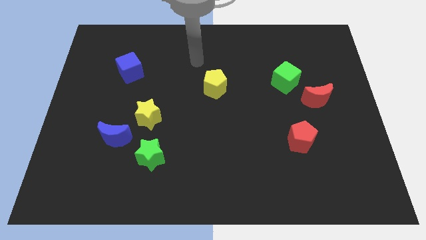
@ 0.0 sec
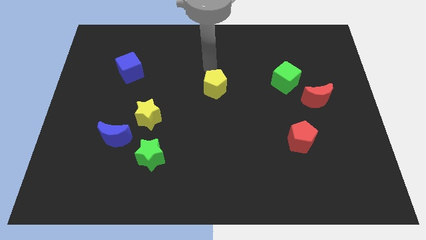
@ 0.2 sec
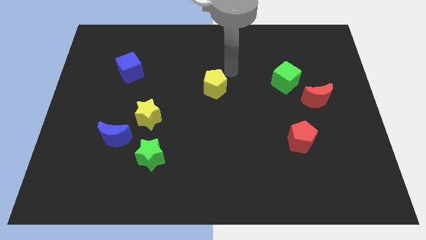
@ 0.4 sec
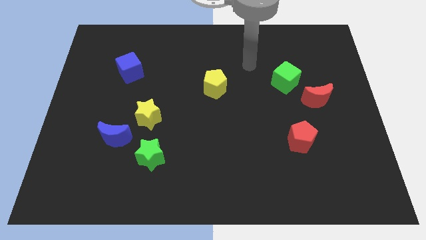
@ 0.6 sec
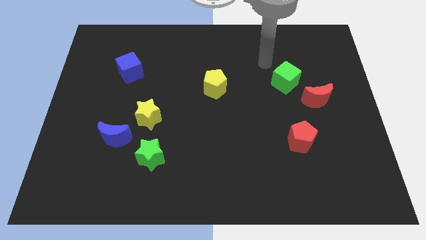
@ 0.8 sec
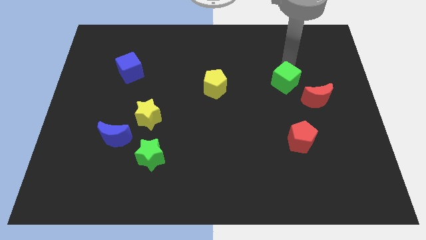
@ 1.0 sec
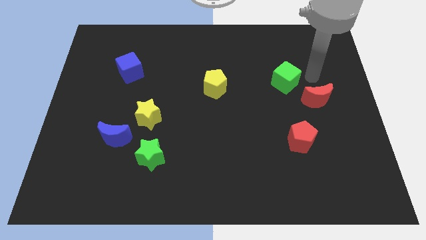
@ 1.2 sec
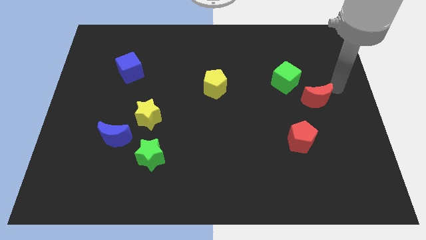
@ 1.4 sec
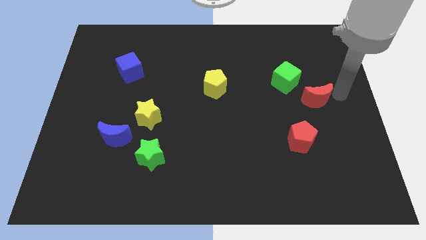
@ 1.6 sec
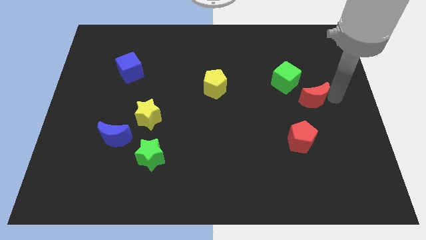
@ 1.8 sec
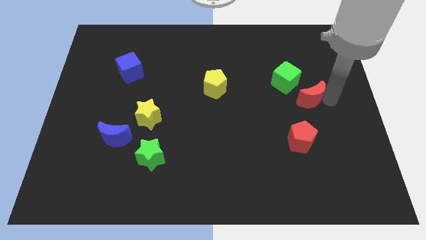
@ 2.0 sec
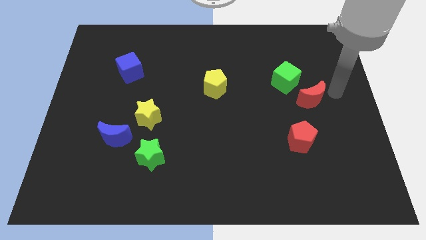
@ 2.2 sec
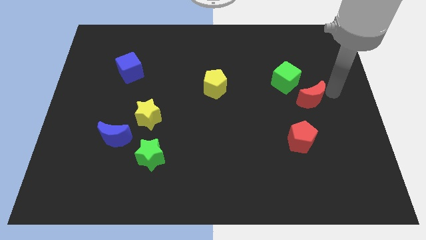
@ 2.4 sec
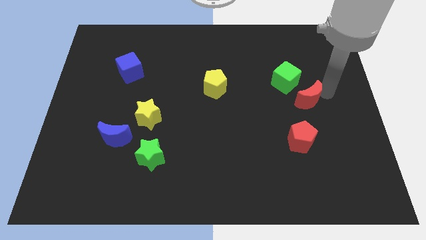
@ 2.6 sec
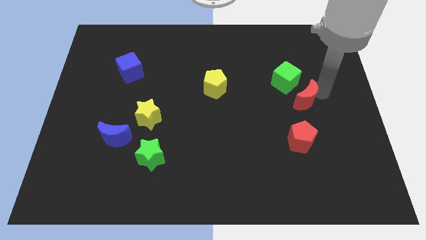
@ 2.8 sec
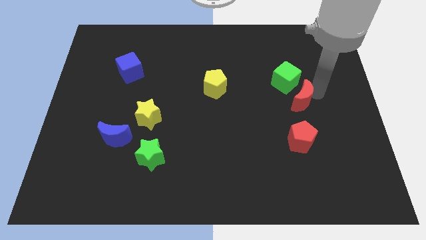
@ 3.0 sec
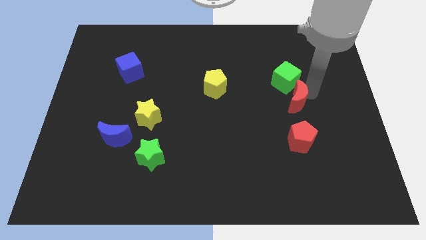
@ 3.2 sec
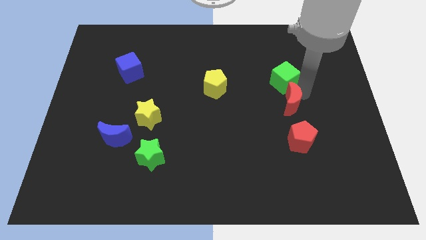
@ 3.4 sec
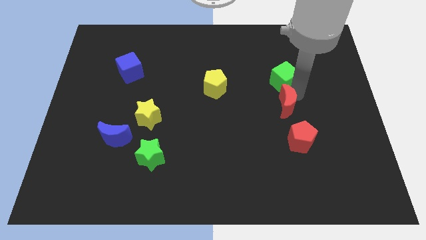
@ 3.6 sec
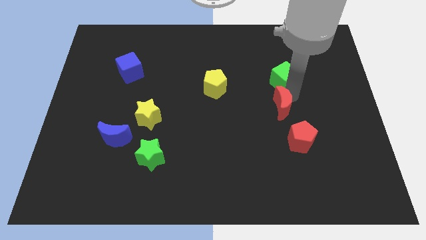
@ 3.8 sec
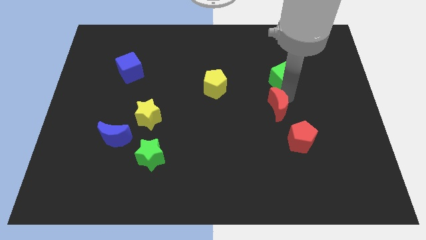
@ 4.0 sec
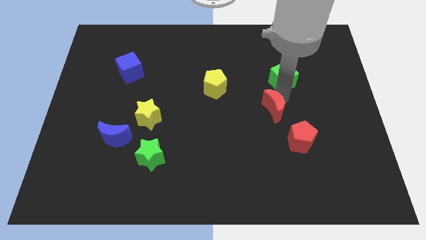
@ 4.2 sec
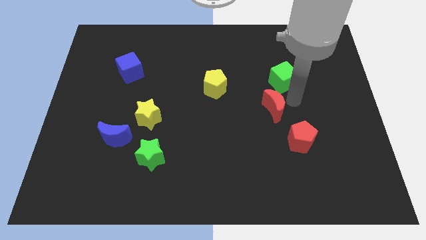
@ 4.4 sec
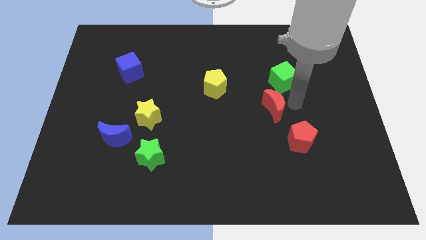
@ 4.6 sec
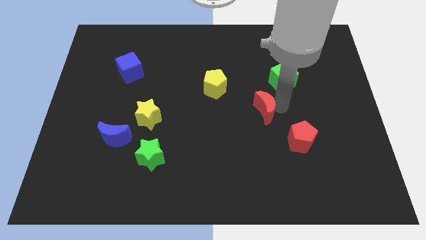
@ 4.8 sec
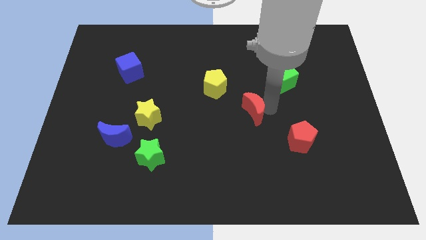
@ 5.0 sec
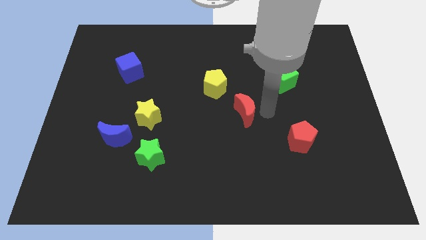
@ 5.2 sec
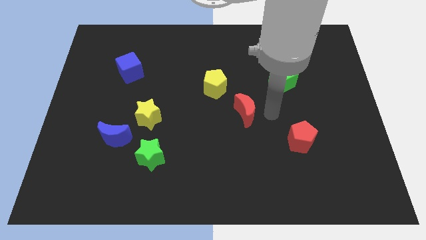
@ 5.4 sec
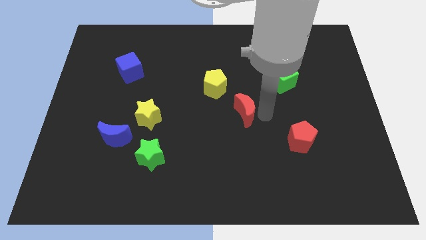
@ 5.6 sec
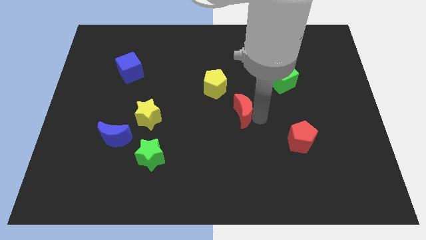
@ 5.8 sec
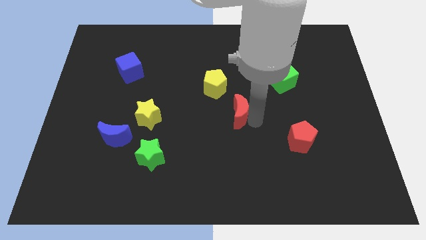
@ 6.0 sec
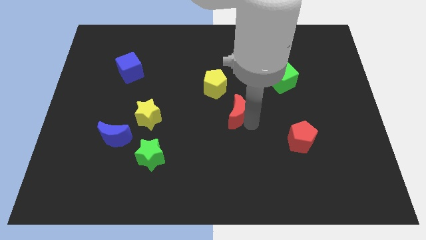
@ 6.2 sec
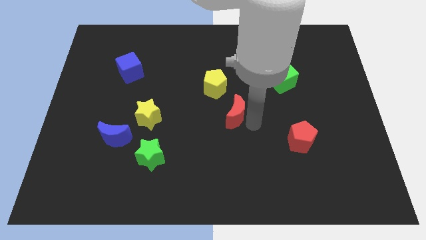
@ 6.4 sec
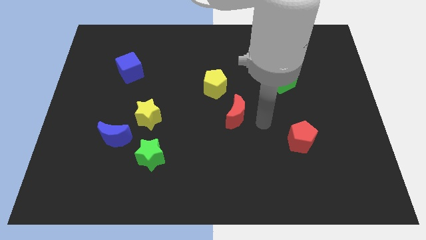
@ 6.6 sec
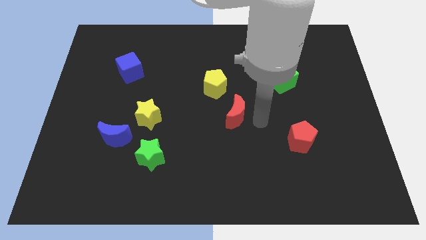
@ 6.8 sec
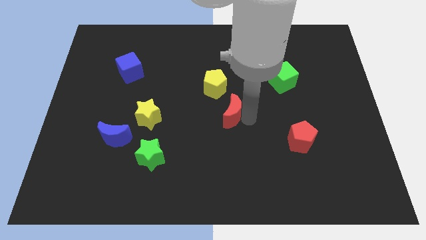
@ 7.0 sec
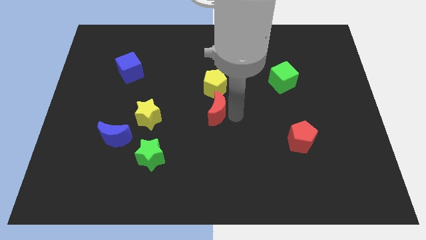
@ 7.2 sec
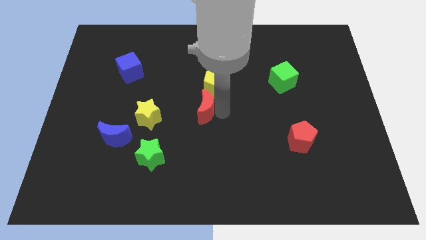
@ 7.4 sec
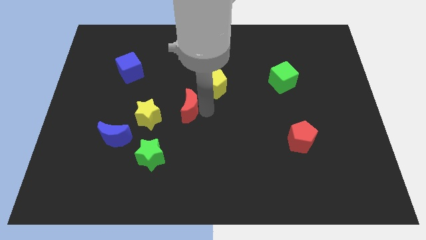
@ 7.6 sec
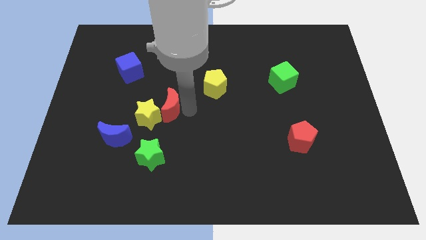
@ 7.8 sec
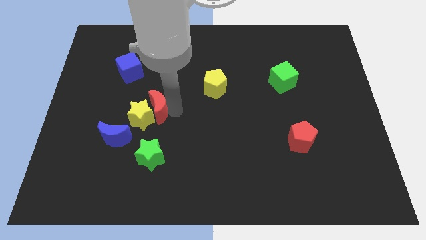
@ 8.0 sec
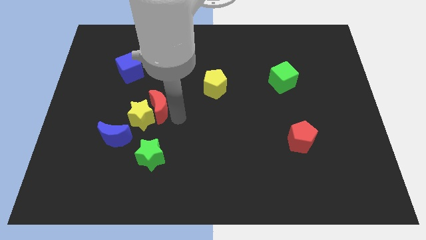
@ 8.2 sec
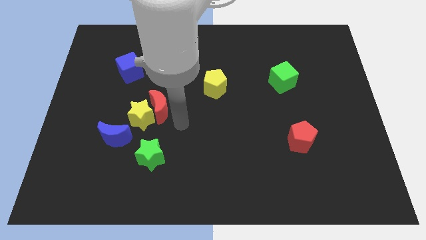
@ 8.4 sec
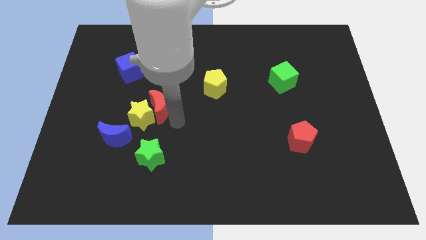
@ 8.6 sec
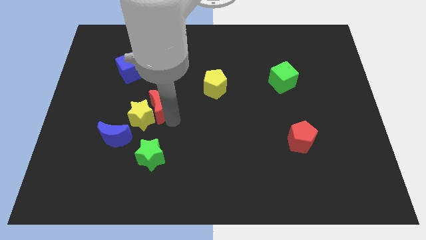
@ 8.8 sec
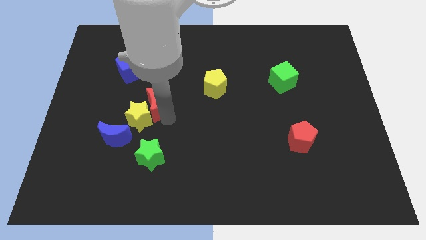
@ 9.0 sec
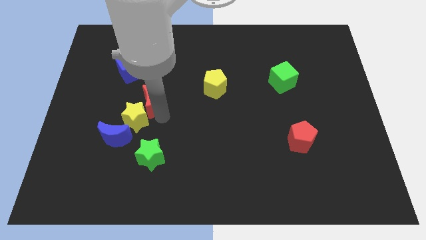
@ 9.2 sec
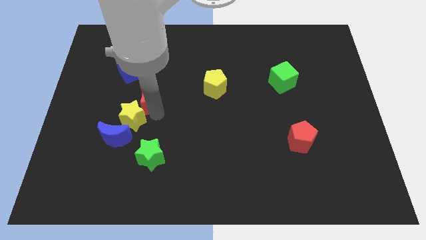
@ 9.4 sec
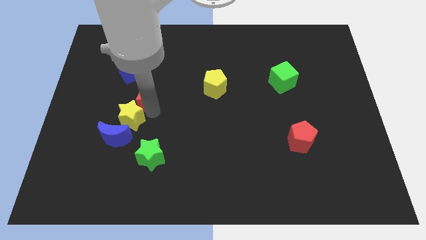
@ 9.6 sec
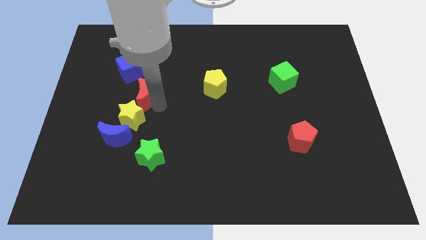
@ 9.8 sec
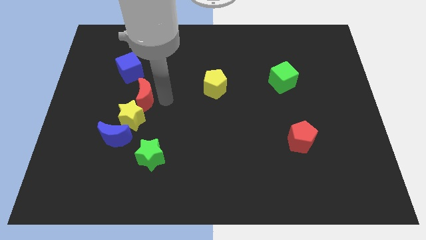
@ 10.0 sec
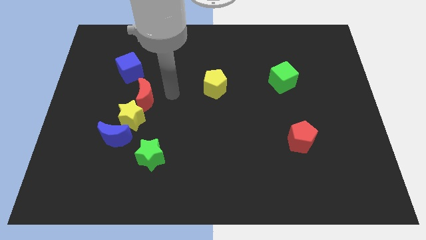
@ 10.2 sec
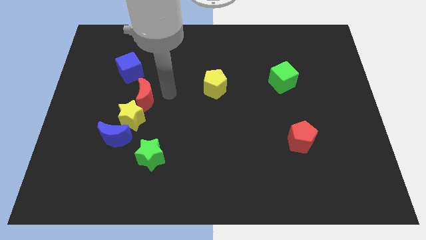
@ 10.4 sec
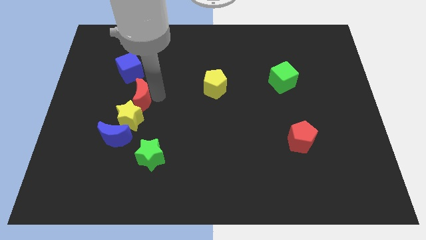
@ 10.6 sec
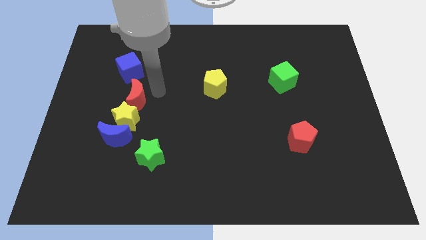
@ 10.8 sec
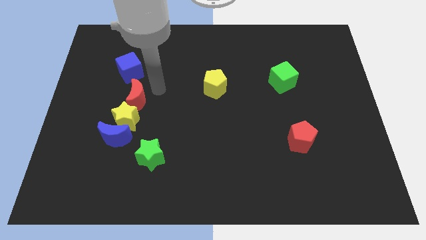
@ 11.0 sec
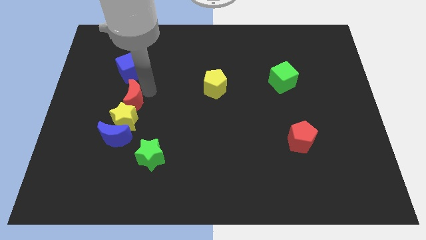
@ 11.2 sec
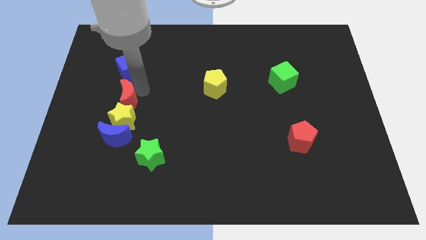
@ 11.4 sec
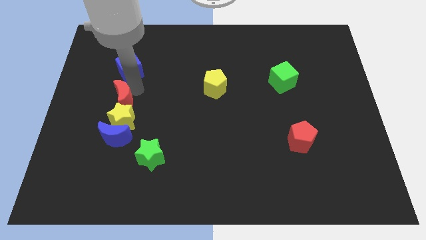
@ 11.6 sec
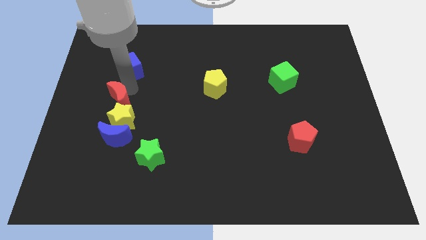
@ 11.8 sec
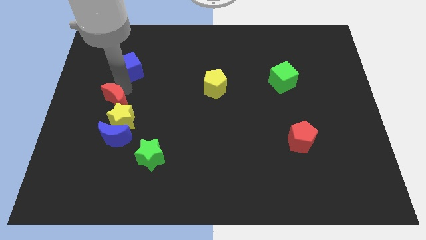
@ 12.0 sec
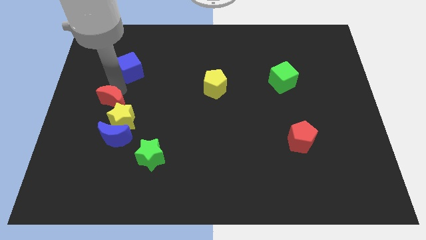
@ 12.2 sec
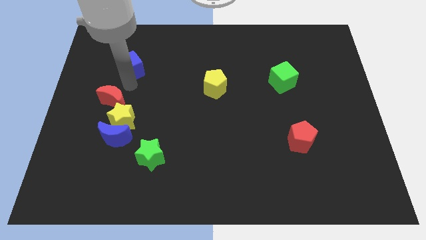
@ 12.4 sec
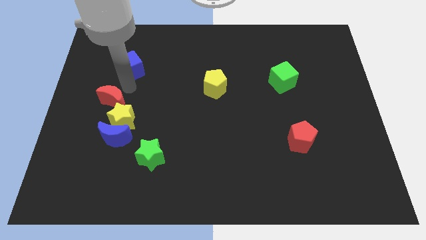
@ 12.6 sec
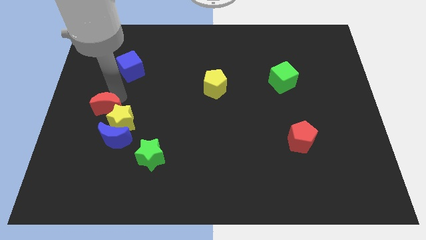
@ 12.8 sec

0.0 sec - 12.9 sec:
slide the red moon to the top left of the blue moon

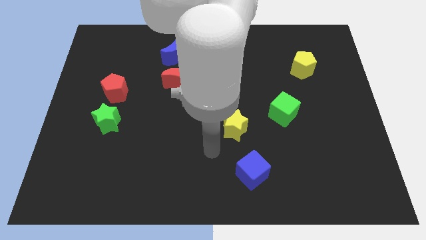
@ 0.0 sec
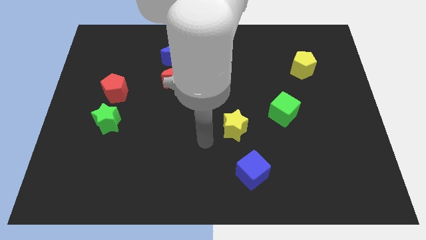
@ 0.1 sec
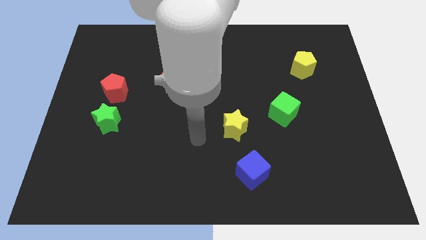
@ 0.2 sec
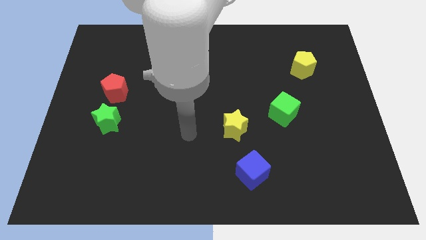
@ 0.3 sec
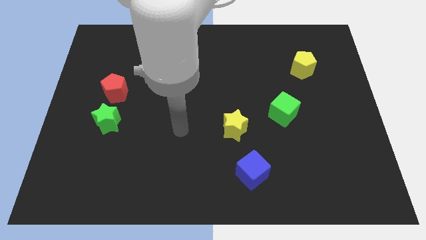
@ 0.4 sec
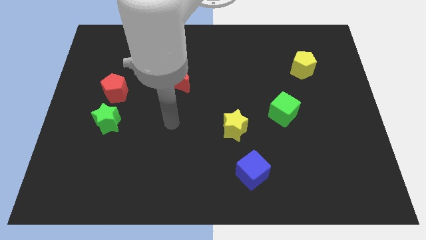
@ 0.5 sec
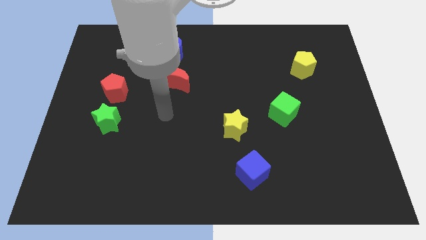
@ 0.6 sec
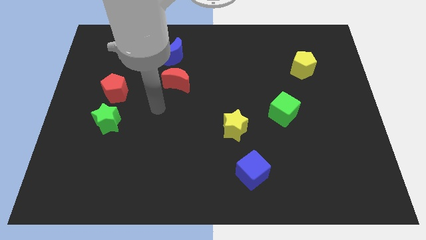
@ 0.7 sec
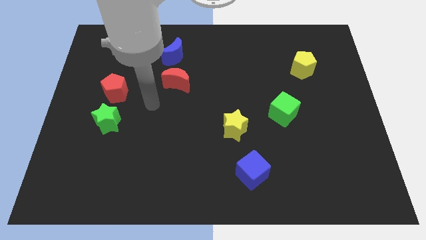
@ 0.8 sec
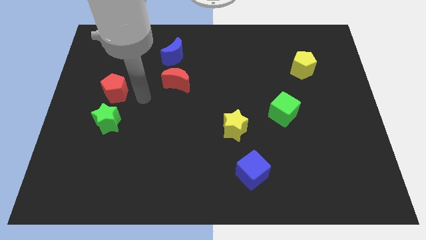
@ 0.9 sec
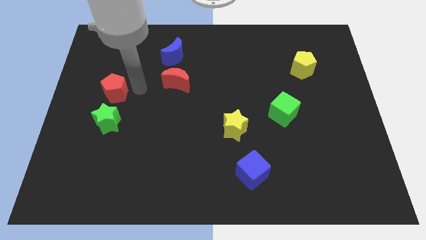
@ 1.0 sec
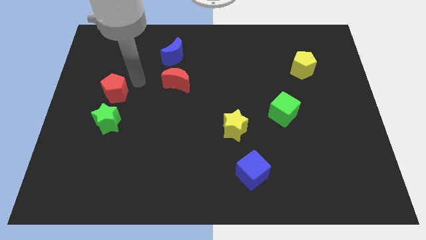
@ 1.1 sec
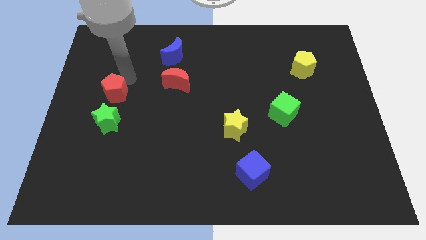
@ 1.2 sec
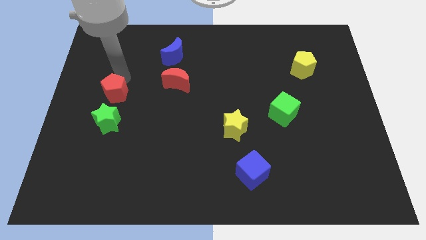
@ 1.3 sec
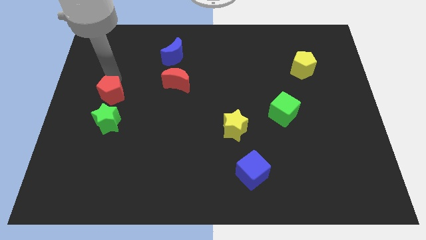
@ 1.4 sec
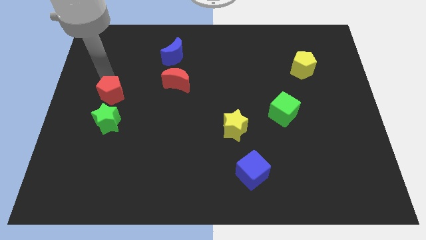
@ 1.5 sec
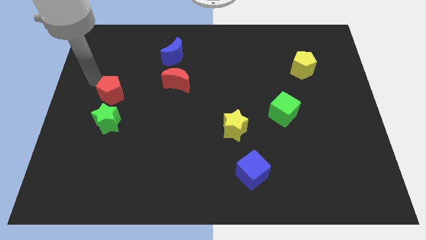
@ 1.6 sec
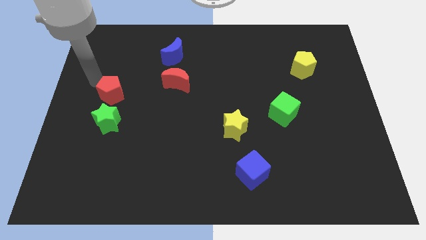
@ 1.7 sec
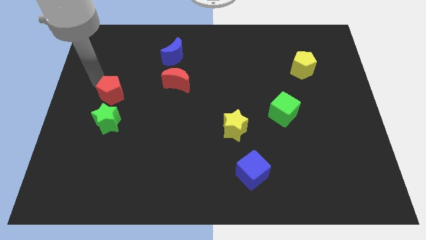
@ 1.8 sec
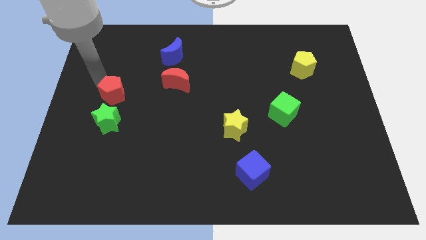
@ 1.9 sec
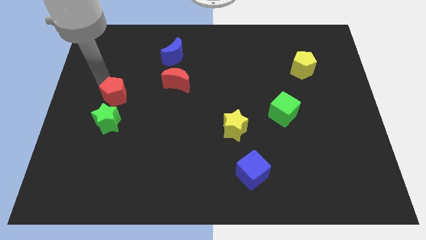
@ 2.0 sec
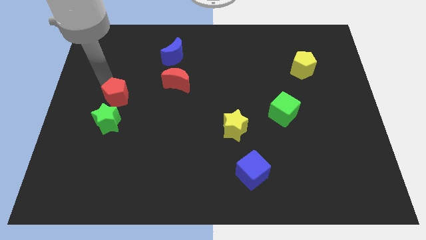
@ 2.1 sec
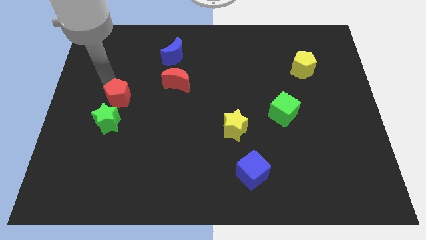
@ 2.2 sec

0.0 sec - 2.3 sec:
move the red pentagon diagonally up and to the right of the green star
